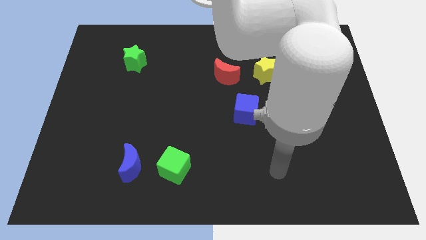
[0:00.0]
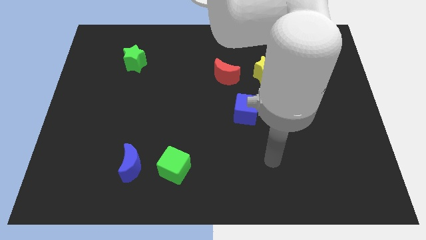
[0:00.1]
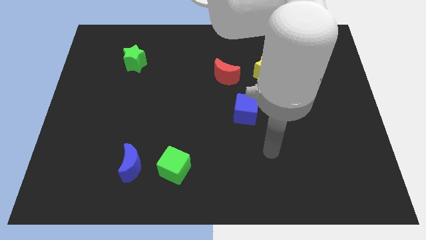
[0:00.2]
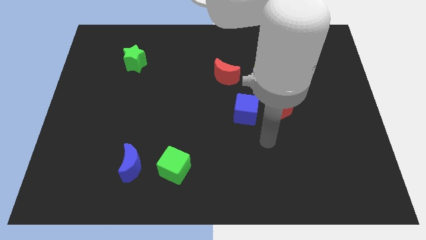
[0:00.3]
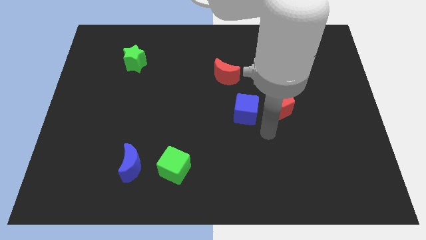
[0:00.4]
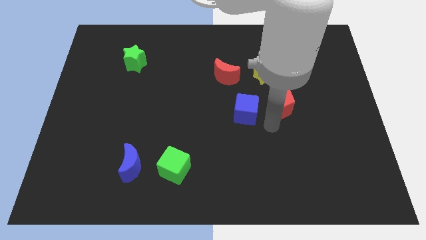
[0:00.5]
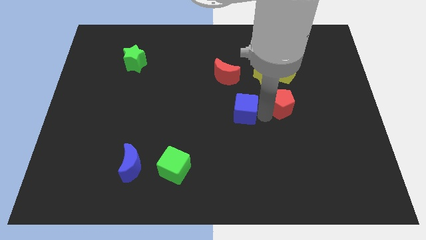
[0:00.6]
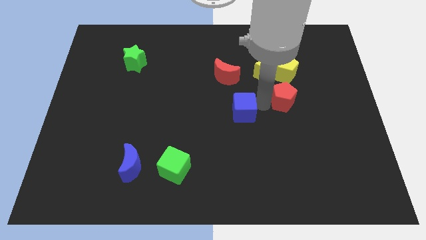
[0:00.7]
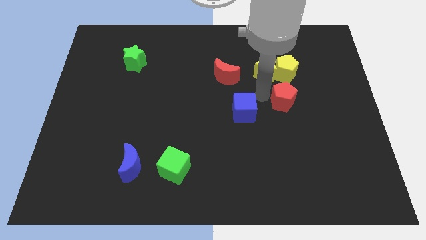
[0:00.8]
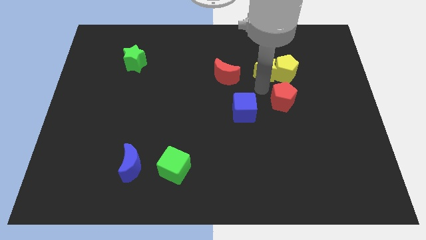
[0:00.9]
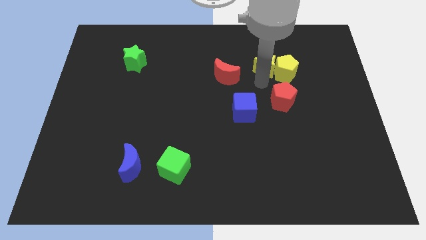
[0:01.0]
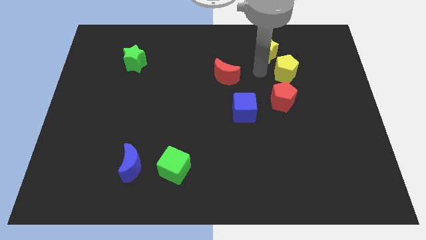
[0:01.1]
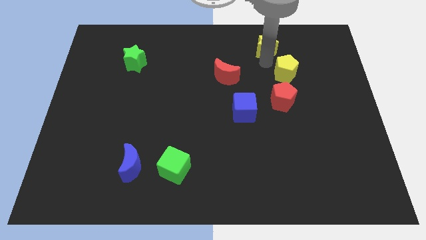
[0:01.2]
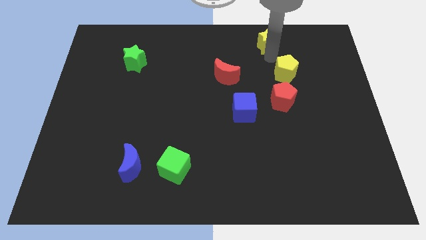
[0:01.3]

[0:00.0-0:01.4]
move the yellow pentagon away from the yellow star

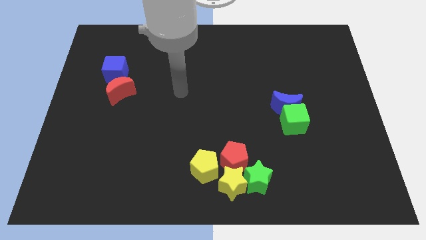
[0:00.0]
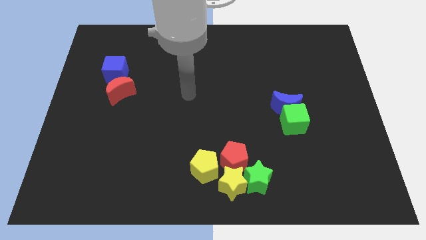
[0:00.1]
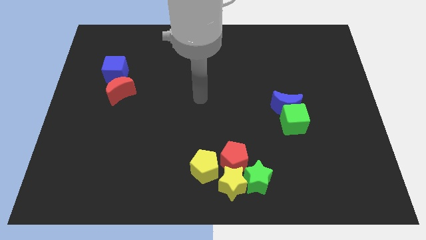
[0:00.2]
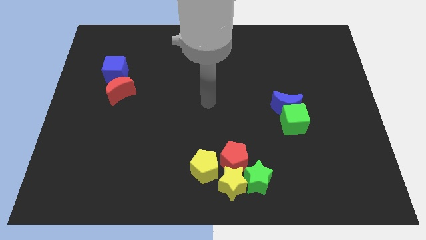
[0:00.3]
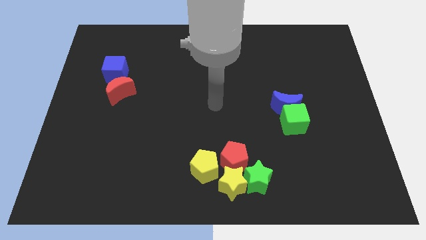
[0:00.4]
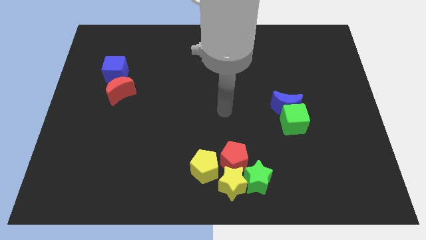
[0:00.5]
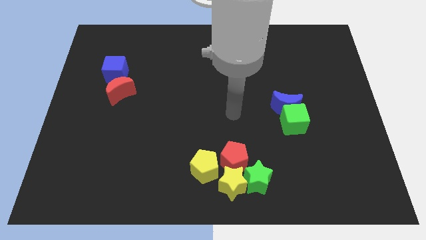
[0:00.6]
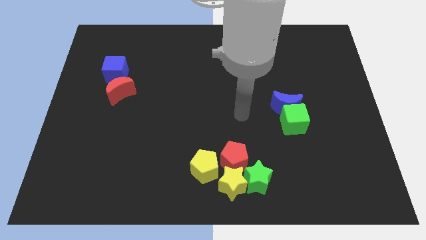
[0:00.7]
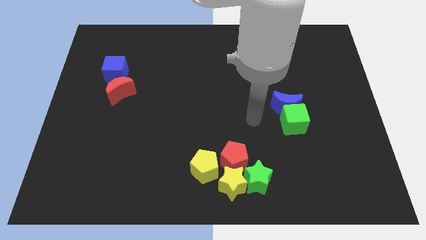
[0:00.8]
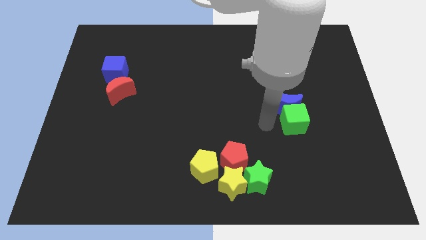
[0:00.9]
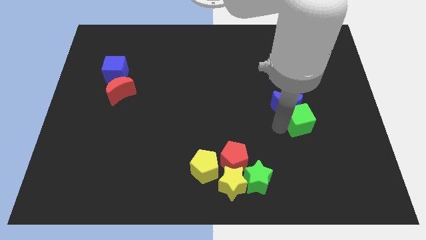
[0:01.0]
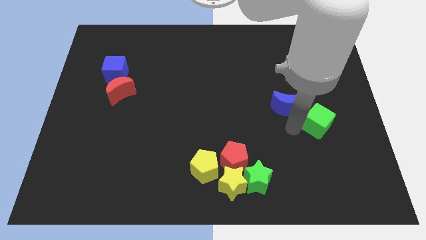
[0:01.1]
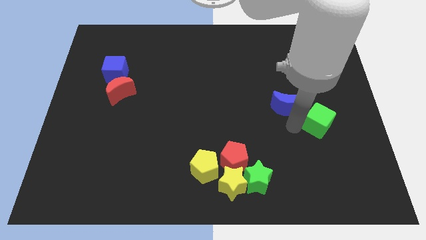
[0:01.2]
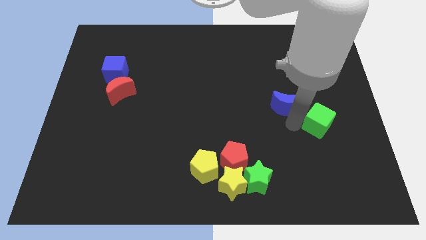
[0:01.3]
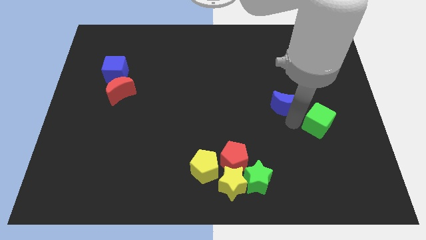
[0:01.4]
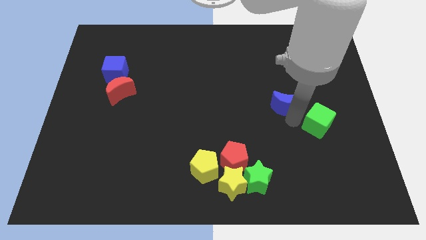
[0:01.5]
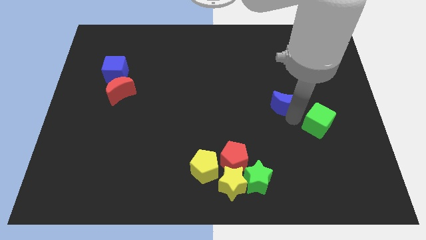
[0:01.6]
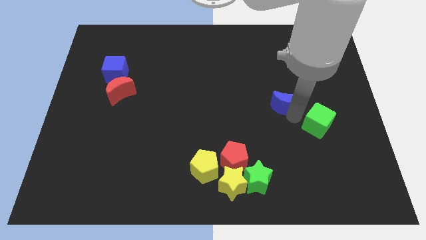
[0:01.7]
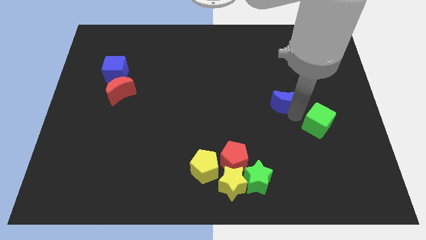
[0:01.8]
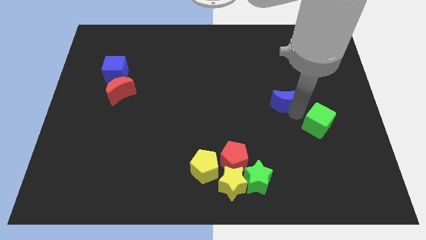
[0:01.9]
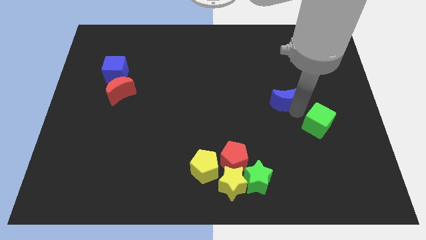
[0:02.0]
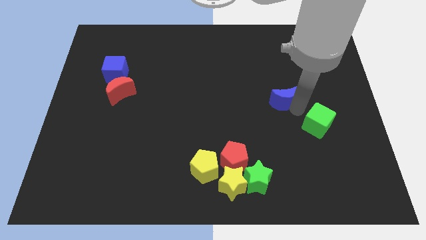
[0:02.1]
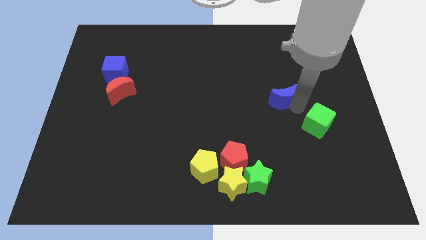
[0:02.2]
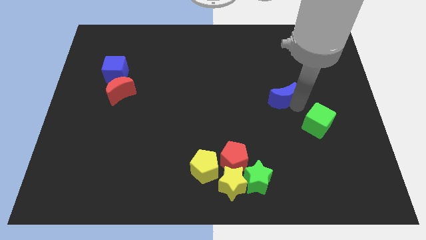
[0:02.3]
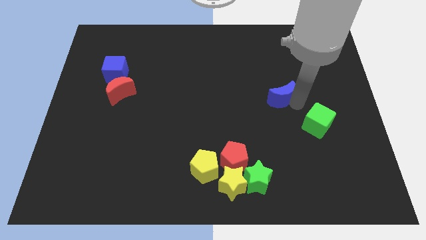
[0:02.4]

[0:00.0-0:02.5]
separate the blue moon from the green cube

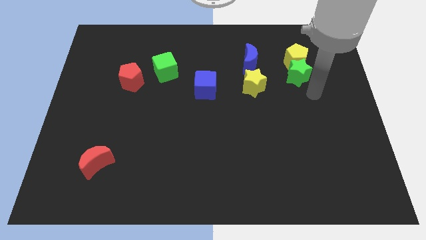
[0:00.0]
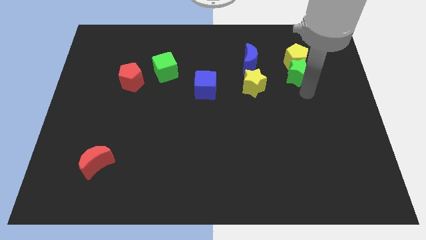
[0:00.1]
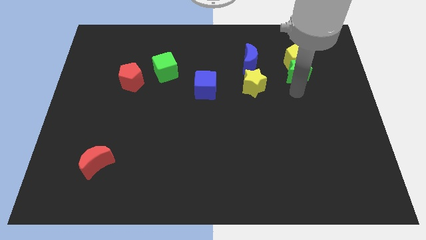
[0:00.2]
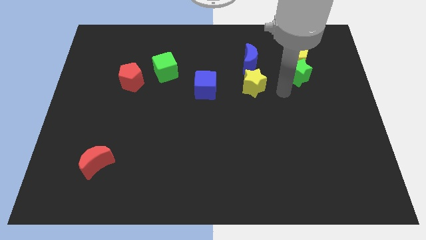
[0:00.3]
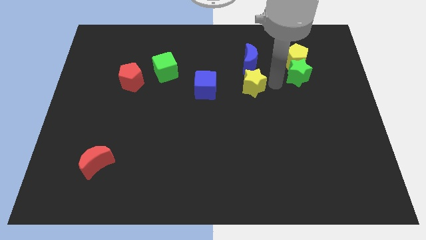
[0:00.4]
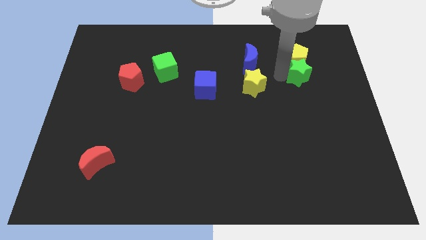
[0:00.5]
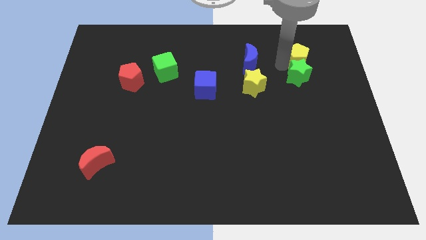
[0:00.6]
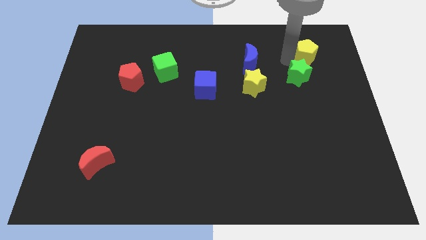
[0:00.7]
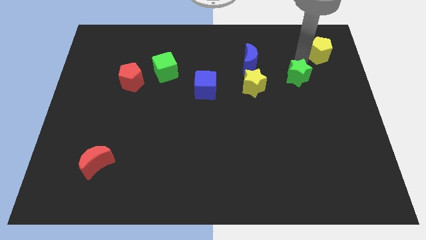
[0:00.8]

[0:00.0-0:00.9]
pull the green star apart from the yellow pentagon

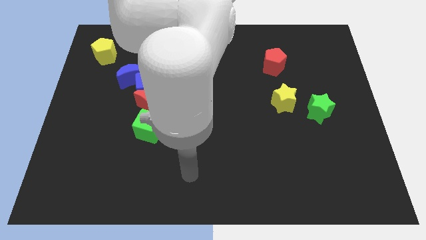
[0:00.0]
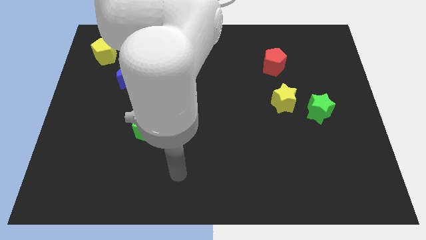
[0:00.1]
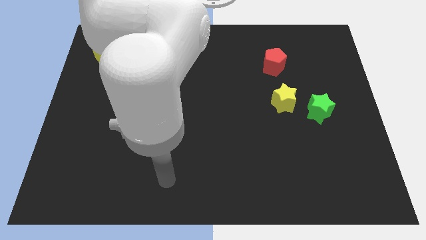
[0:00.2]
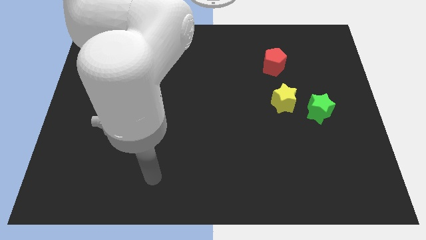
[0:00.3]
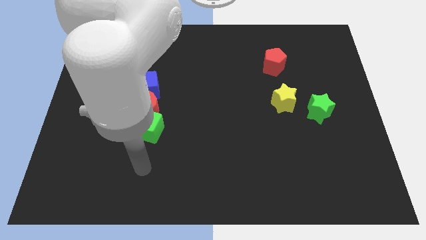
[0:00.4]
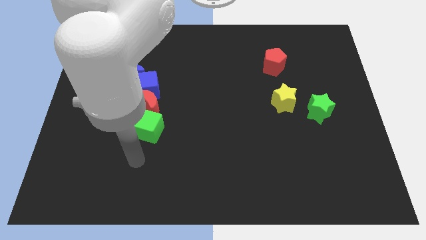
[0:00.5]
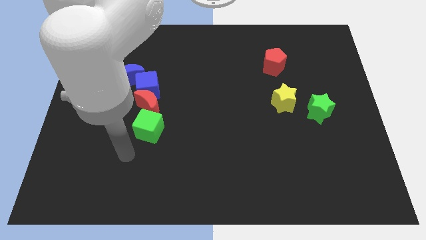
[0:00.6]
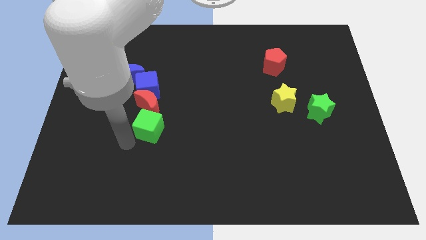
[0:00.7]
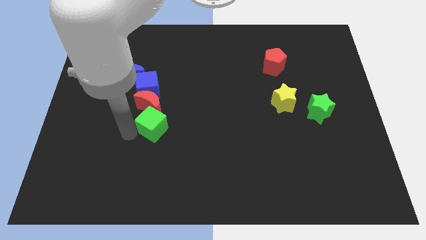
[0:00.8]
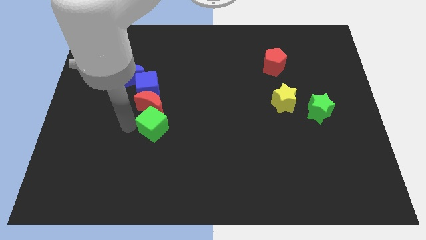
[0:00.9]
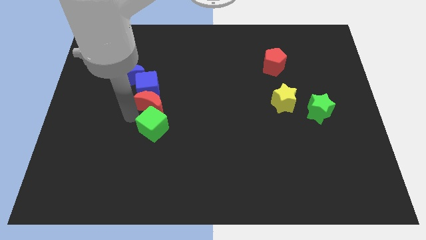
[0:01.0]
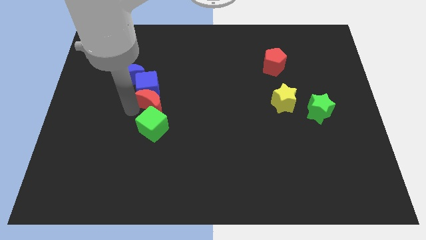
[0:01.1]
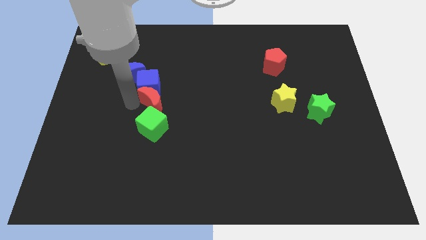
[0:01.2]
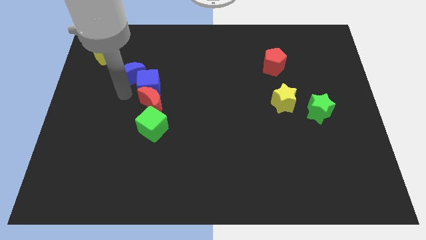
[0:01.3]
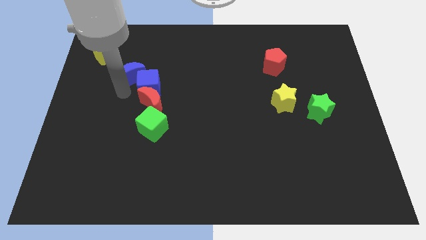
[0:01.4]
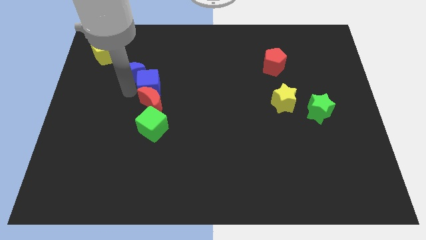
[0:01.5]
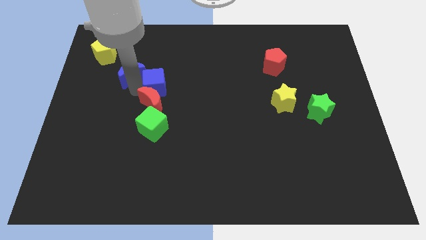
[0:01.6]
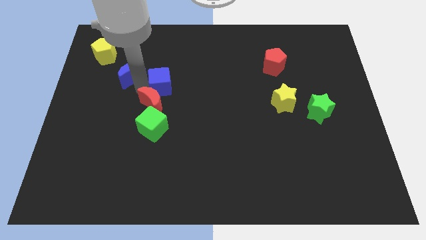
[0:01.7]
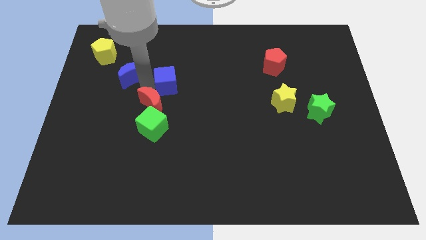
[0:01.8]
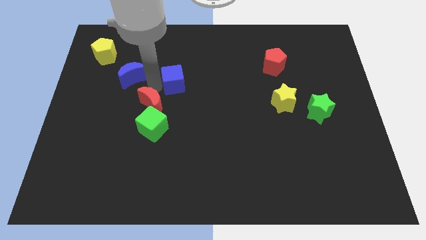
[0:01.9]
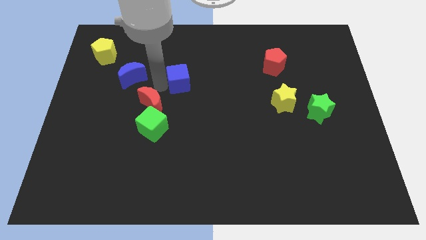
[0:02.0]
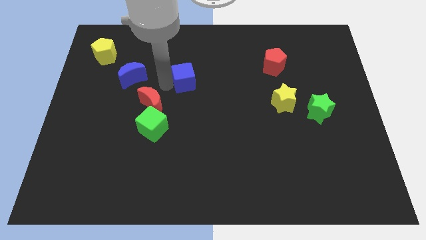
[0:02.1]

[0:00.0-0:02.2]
pull the blue cube apart from the red moon and blue moon

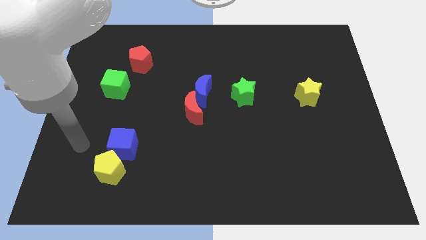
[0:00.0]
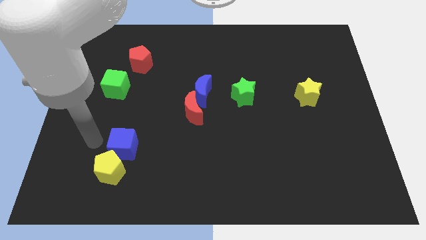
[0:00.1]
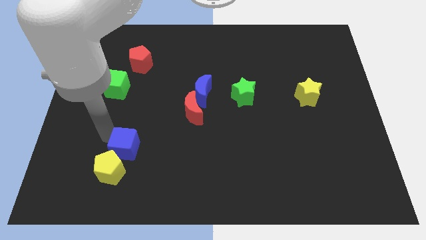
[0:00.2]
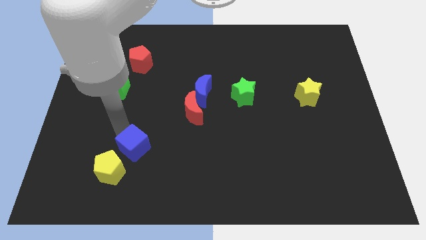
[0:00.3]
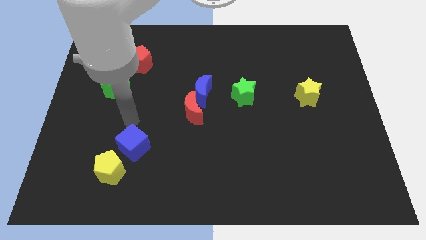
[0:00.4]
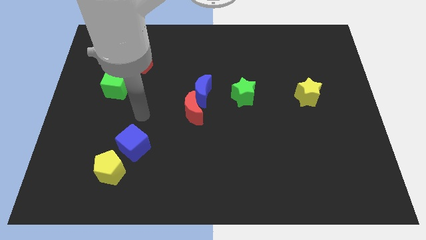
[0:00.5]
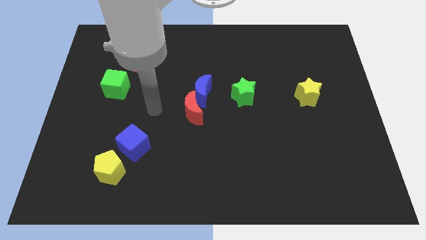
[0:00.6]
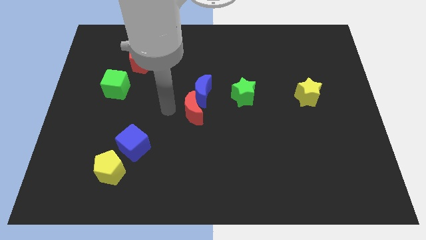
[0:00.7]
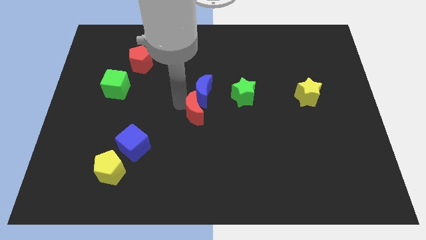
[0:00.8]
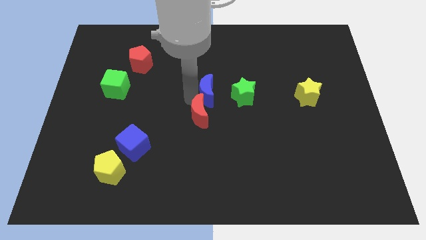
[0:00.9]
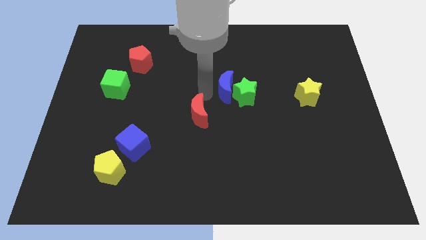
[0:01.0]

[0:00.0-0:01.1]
move the red moon away from the blue moon

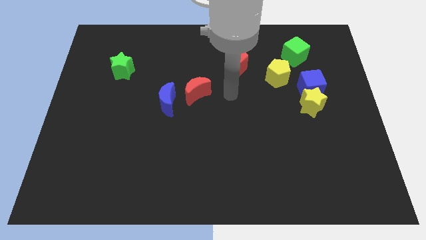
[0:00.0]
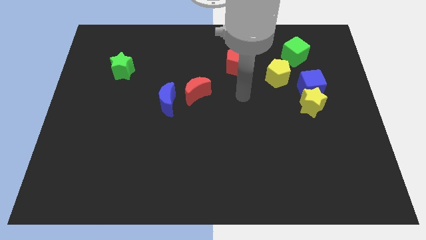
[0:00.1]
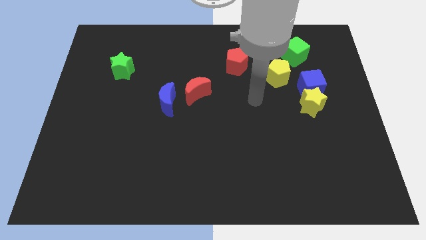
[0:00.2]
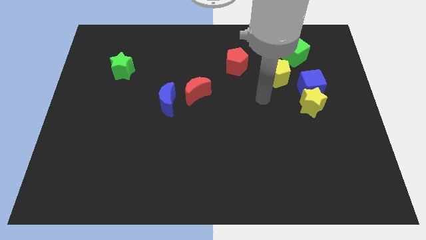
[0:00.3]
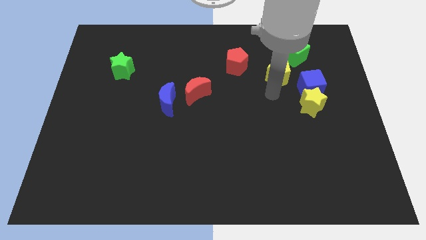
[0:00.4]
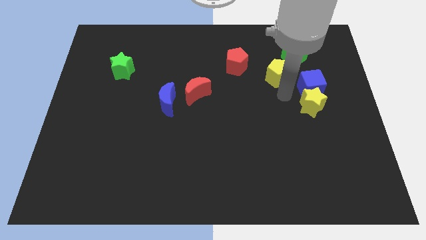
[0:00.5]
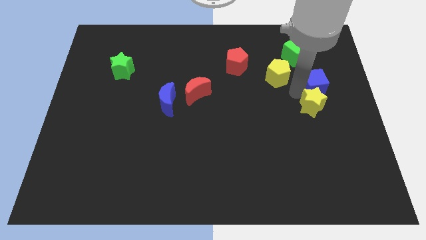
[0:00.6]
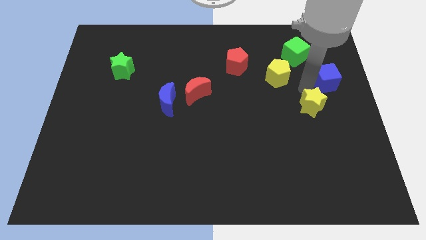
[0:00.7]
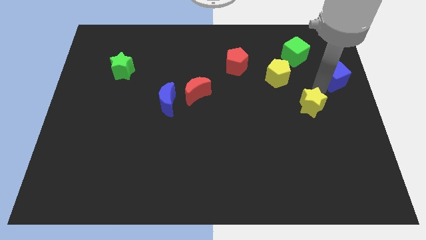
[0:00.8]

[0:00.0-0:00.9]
separate the yellow star from the blue cube

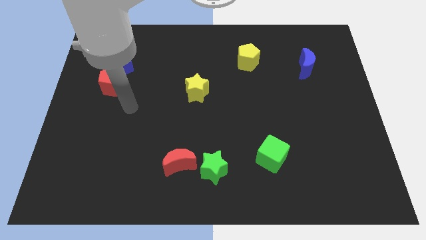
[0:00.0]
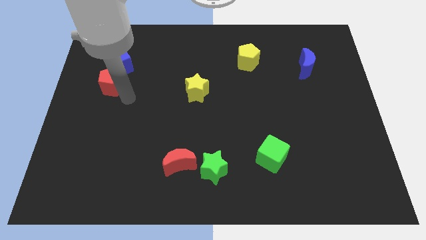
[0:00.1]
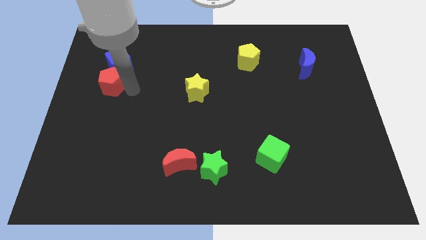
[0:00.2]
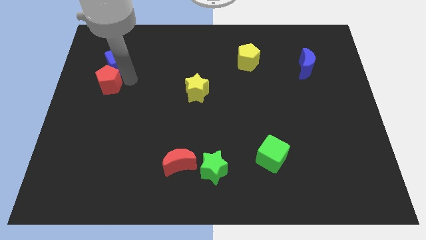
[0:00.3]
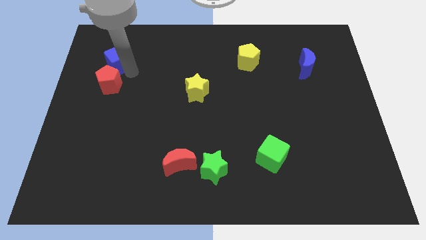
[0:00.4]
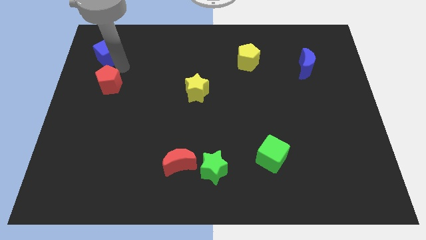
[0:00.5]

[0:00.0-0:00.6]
move the red pentagon away from the blue cube
